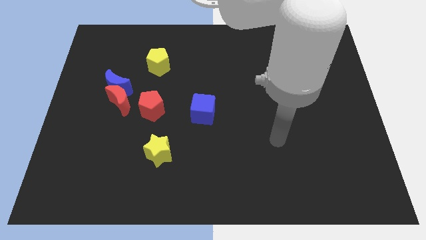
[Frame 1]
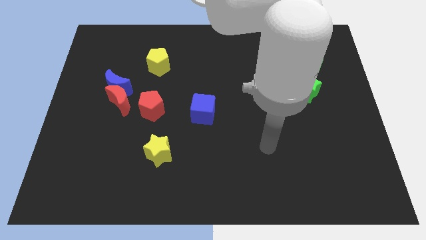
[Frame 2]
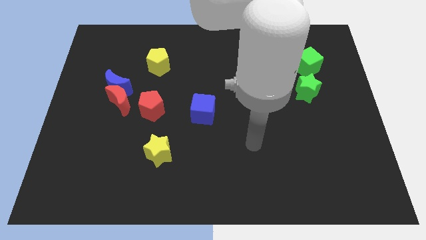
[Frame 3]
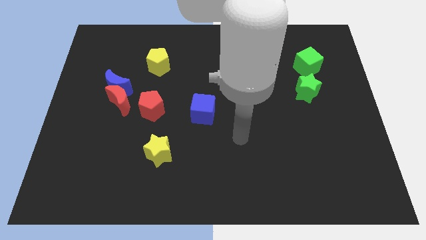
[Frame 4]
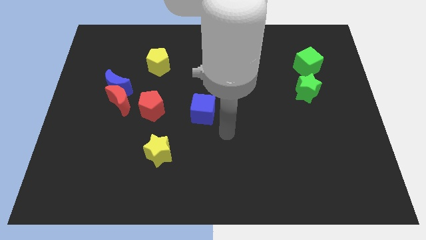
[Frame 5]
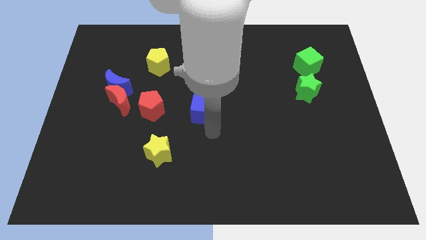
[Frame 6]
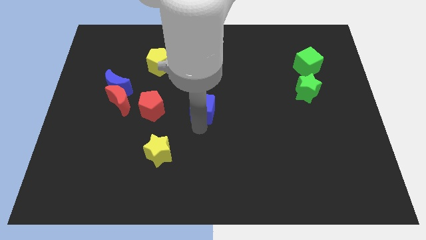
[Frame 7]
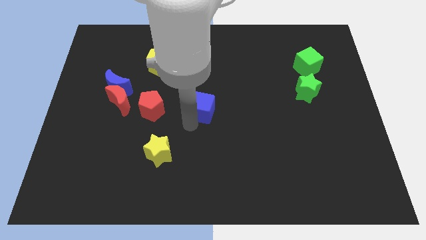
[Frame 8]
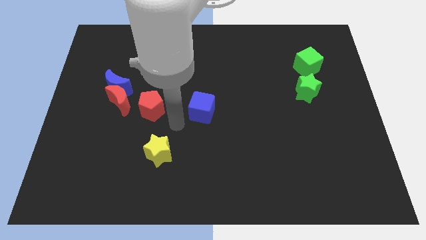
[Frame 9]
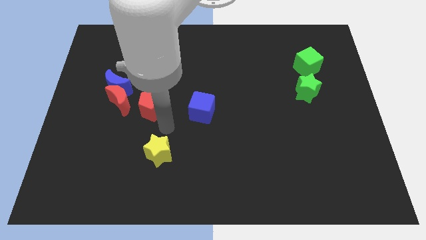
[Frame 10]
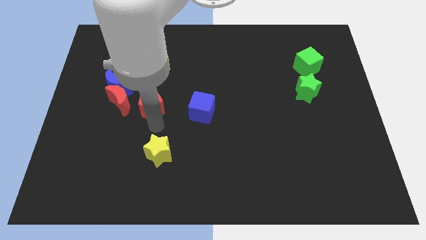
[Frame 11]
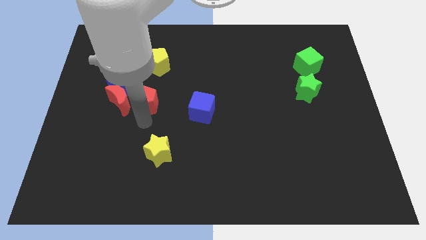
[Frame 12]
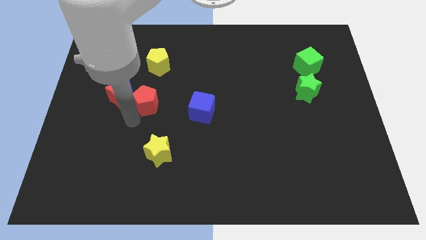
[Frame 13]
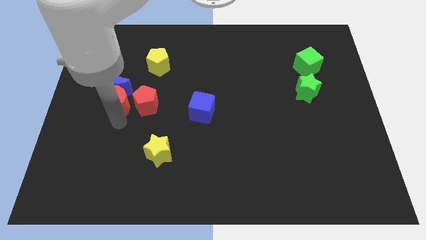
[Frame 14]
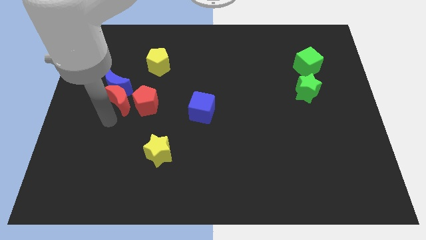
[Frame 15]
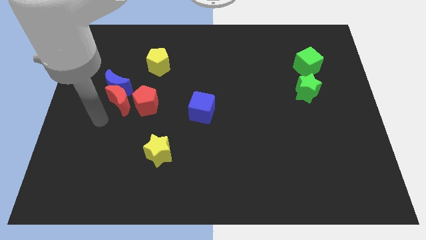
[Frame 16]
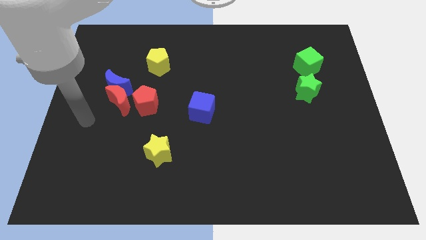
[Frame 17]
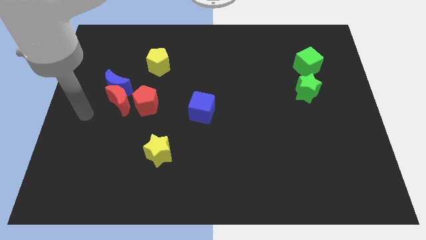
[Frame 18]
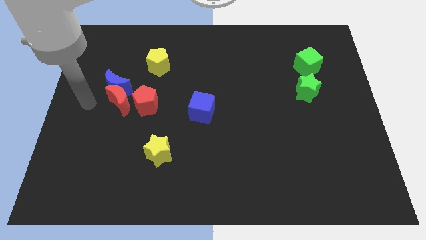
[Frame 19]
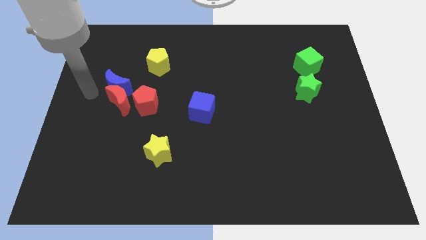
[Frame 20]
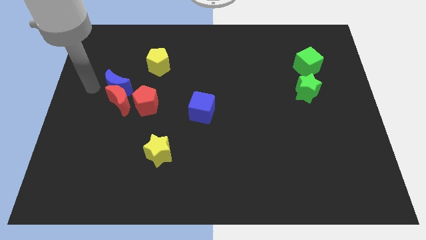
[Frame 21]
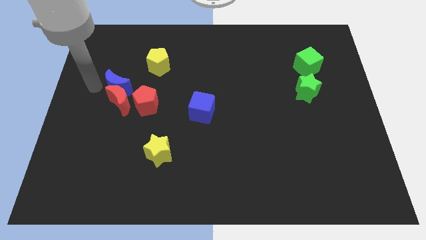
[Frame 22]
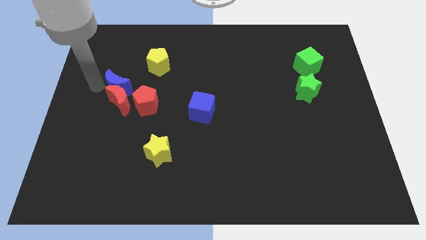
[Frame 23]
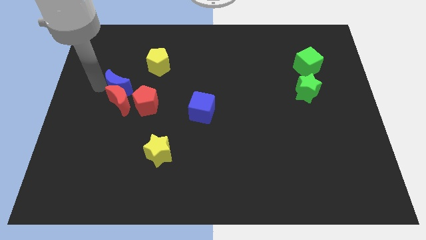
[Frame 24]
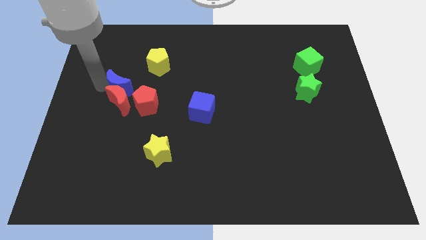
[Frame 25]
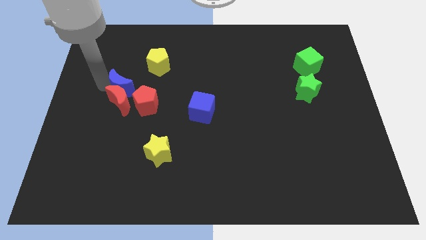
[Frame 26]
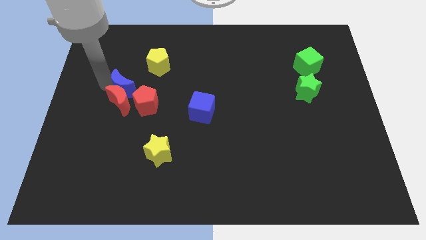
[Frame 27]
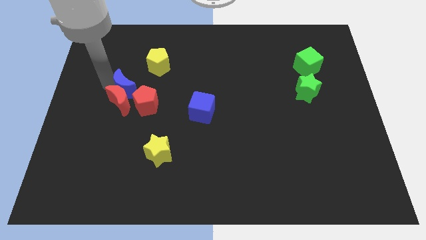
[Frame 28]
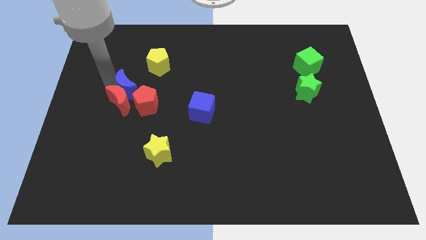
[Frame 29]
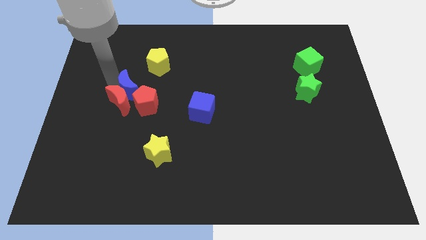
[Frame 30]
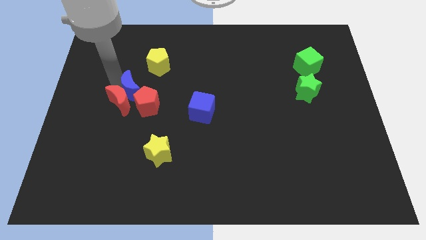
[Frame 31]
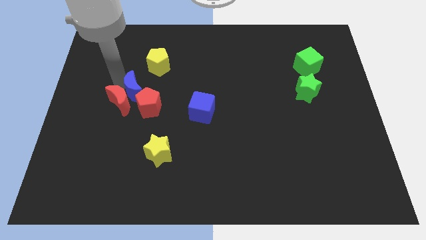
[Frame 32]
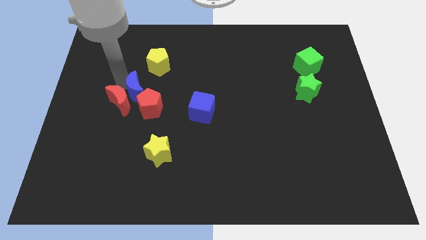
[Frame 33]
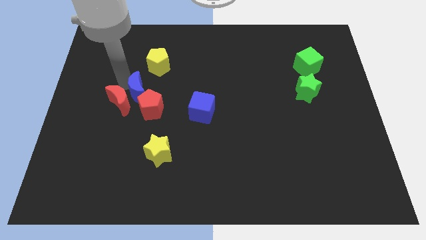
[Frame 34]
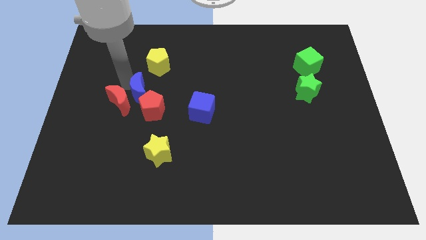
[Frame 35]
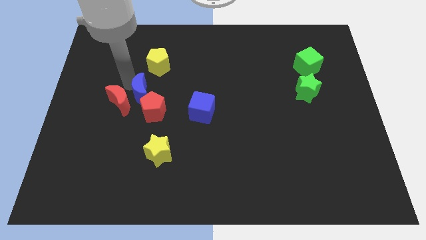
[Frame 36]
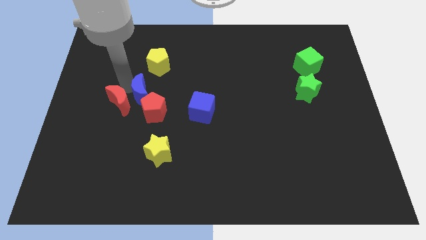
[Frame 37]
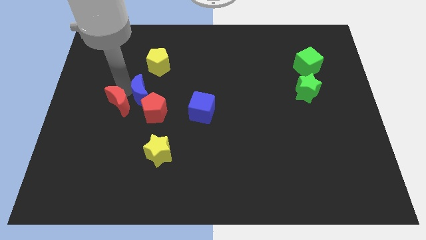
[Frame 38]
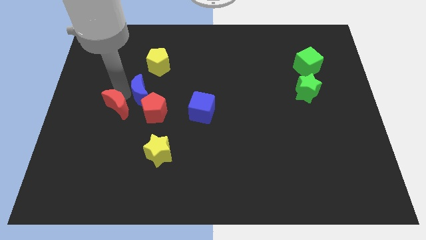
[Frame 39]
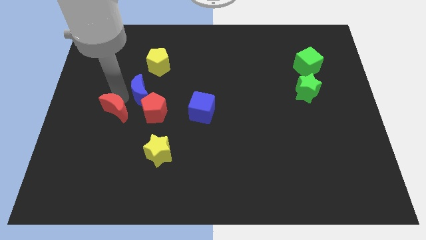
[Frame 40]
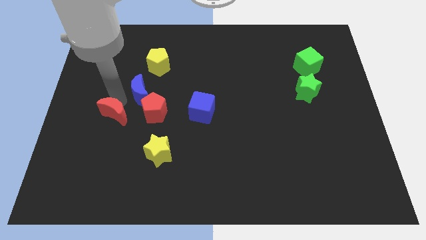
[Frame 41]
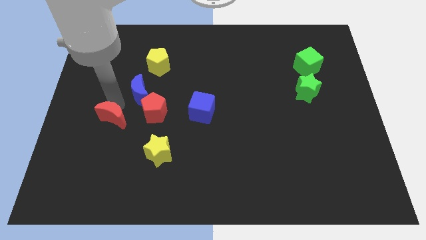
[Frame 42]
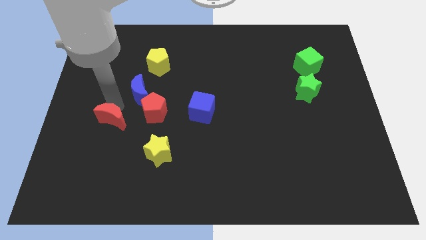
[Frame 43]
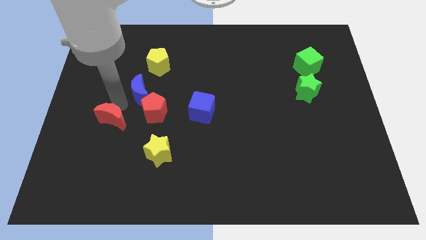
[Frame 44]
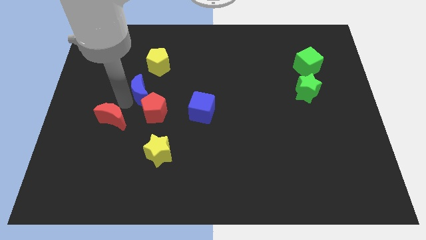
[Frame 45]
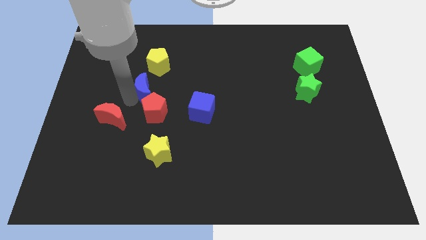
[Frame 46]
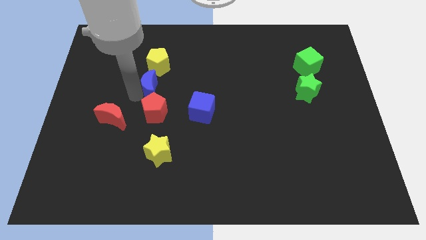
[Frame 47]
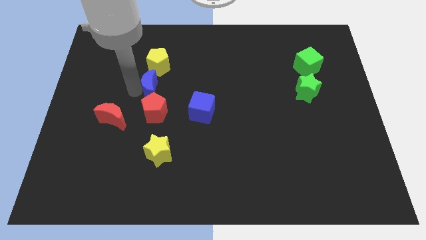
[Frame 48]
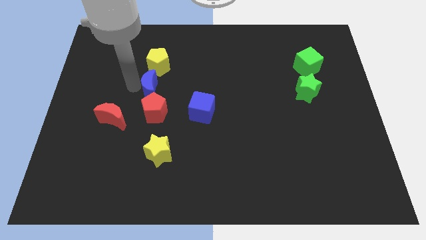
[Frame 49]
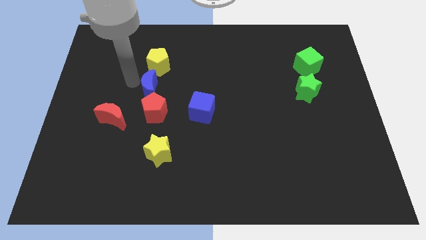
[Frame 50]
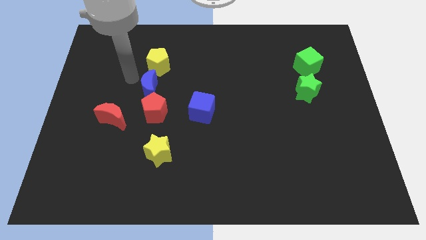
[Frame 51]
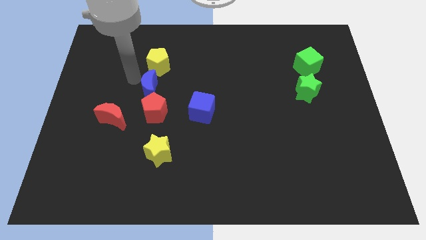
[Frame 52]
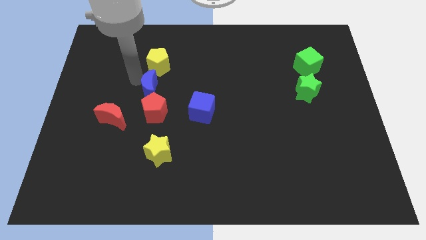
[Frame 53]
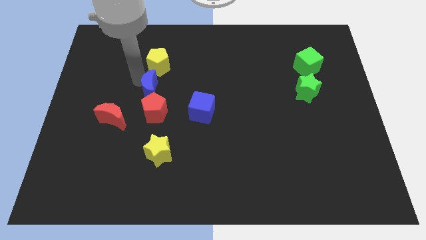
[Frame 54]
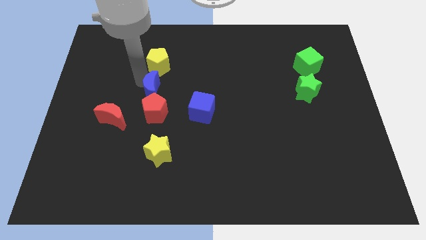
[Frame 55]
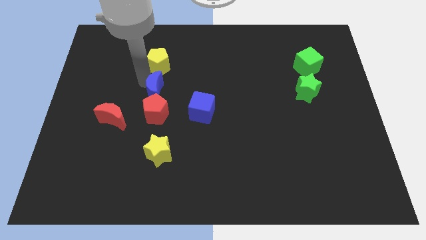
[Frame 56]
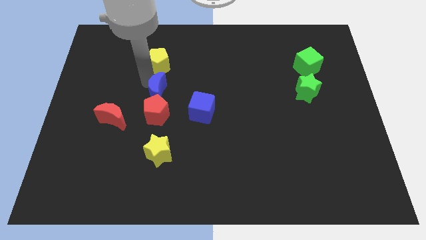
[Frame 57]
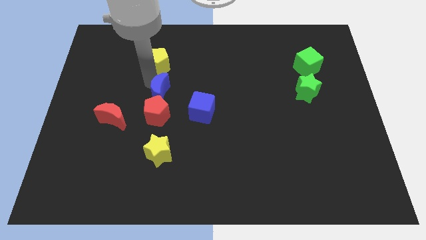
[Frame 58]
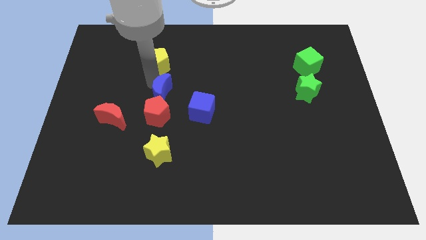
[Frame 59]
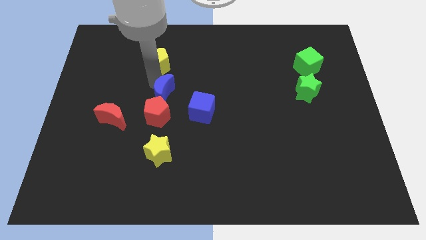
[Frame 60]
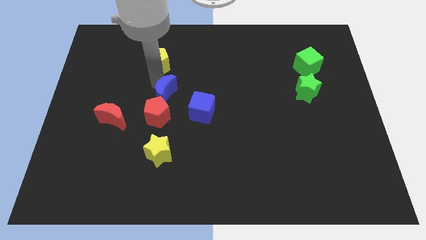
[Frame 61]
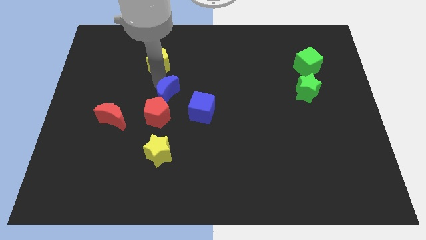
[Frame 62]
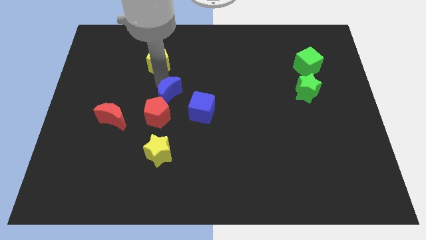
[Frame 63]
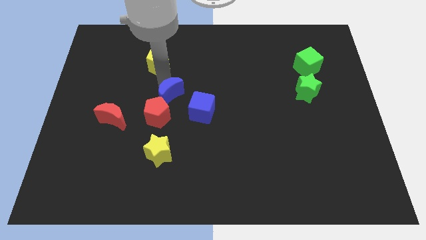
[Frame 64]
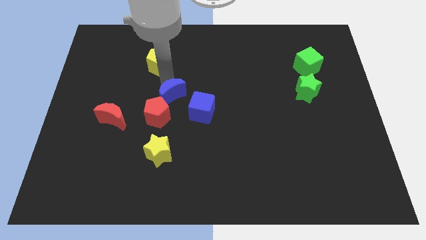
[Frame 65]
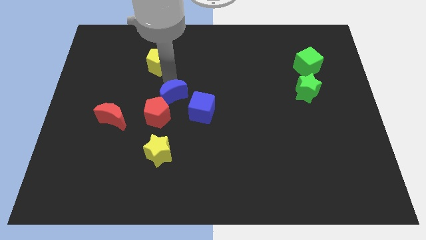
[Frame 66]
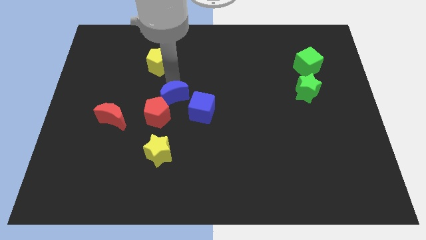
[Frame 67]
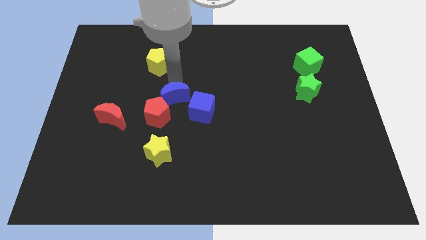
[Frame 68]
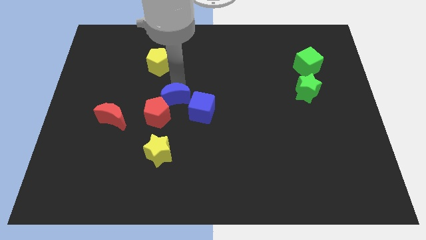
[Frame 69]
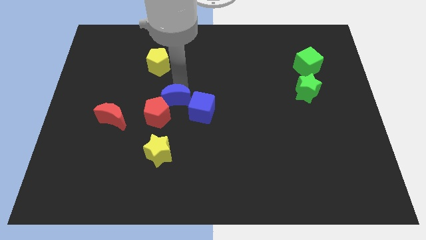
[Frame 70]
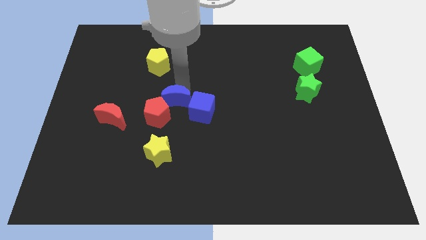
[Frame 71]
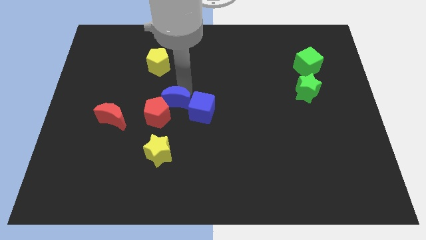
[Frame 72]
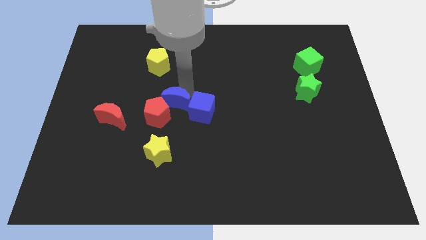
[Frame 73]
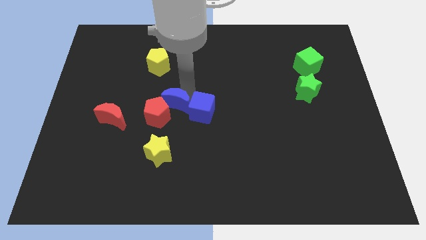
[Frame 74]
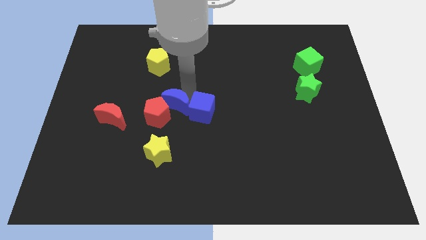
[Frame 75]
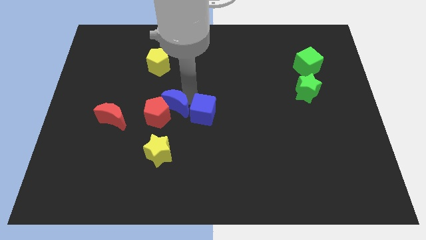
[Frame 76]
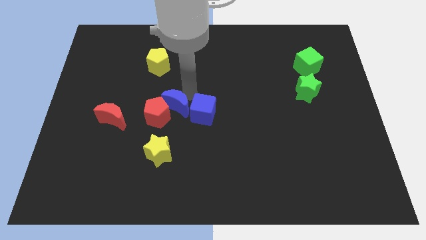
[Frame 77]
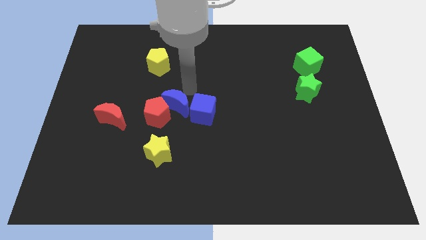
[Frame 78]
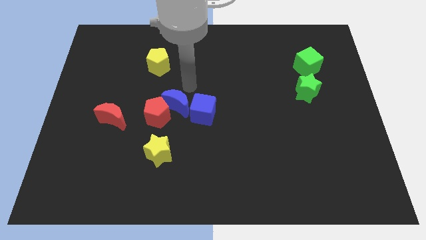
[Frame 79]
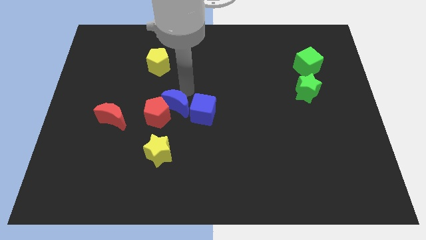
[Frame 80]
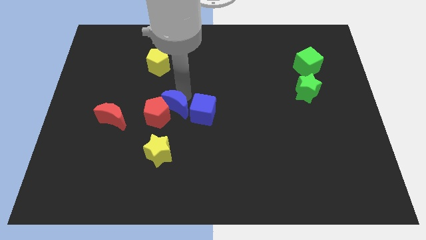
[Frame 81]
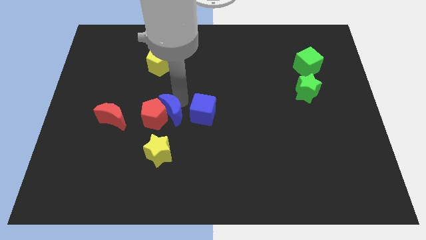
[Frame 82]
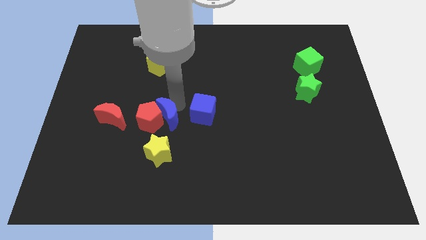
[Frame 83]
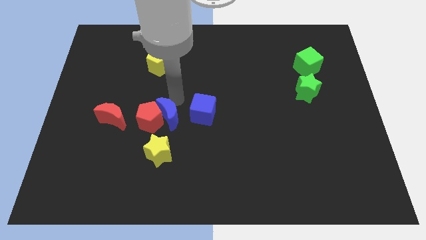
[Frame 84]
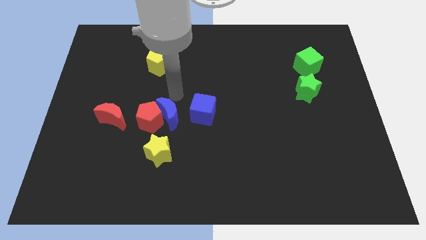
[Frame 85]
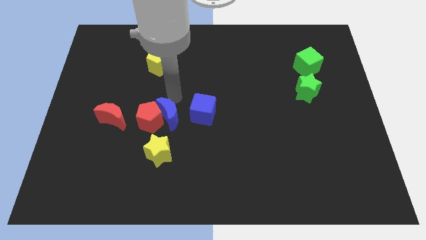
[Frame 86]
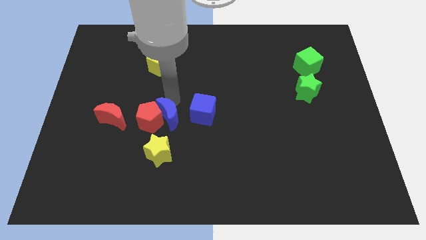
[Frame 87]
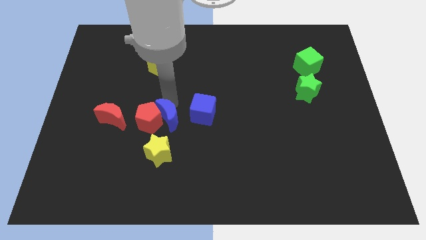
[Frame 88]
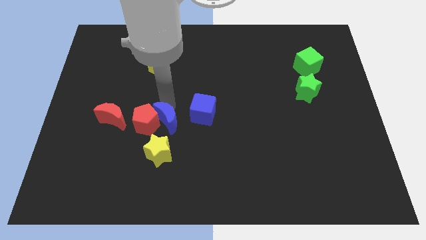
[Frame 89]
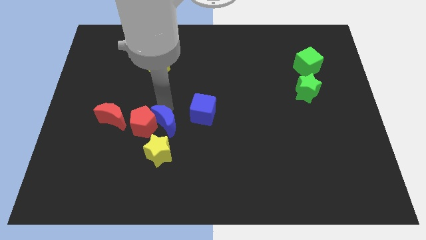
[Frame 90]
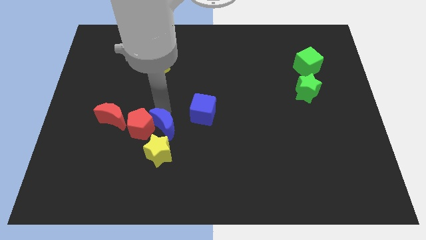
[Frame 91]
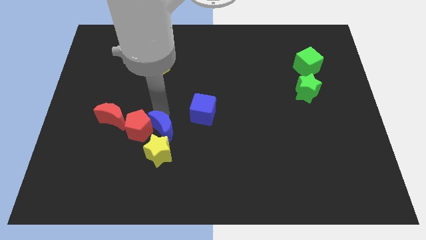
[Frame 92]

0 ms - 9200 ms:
push the blue moon close to the yellow star
